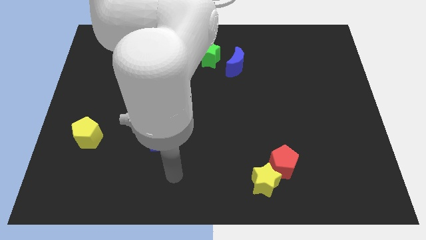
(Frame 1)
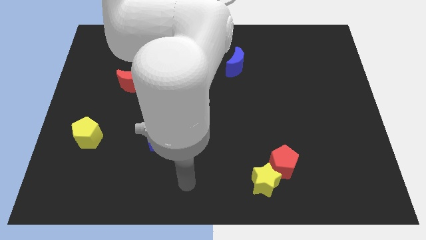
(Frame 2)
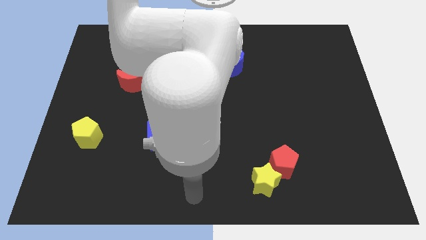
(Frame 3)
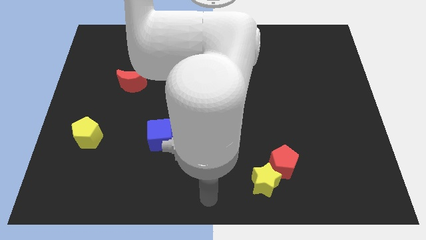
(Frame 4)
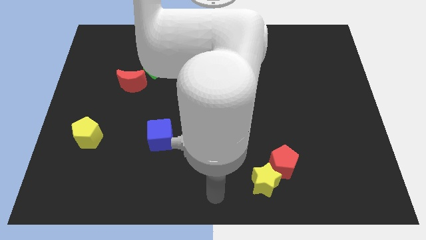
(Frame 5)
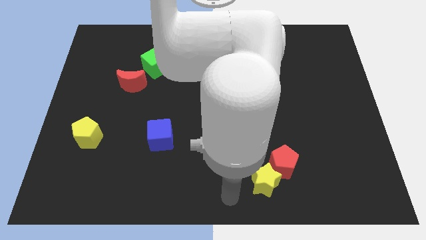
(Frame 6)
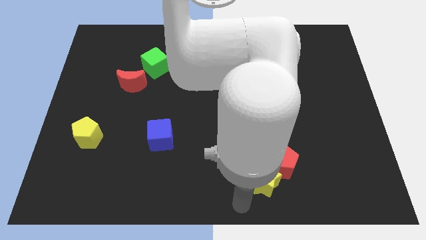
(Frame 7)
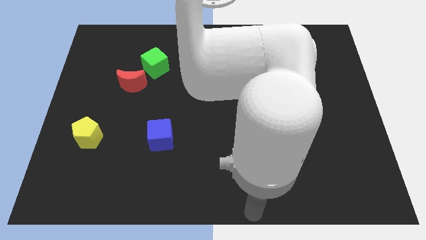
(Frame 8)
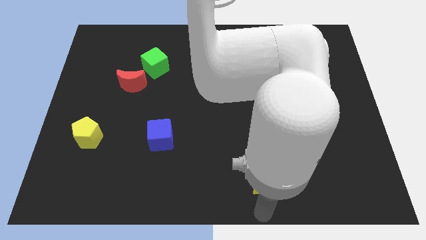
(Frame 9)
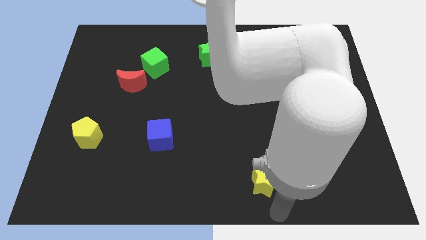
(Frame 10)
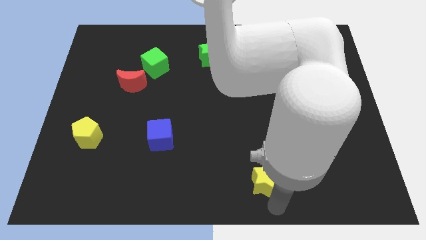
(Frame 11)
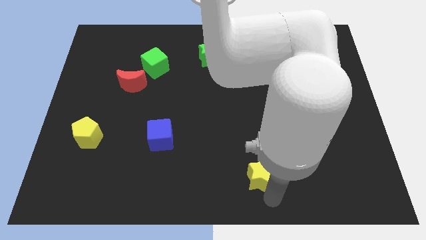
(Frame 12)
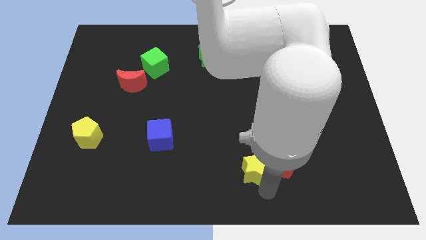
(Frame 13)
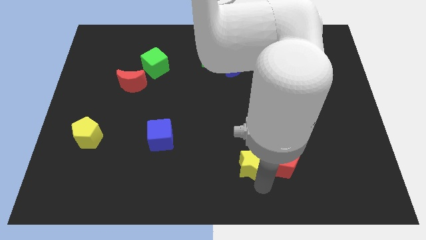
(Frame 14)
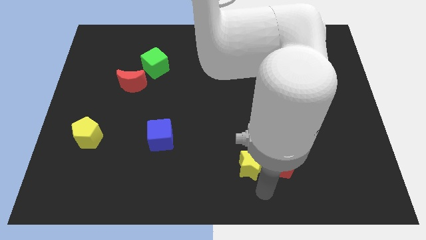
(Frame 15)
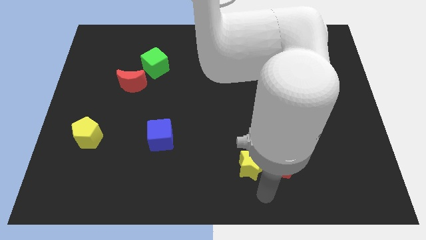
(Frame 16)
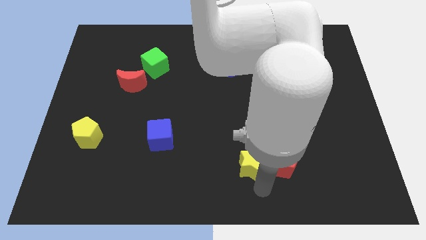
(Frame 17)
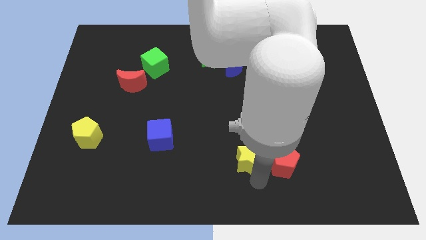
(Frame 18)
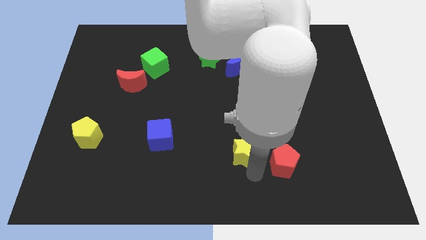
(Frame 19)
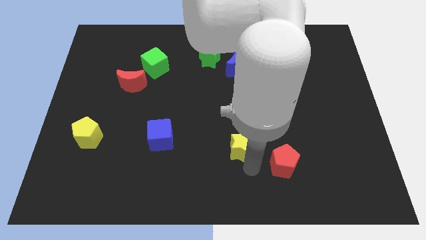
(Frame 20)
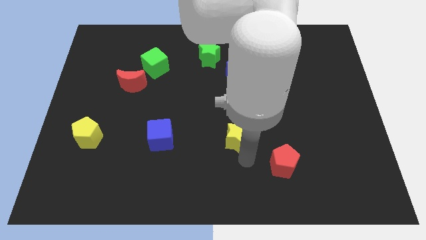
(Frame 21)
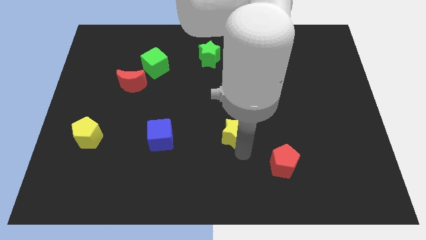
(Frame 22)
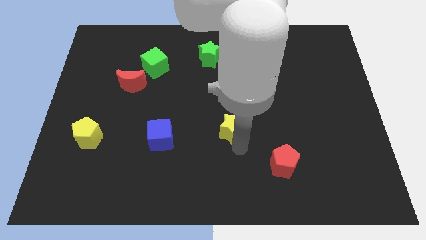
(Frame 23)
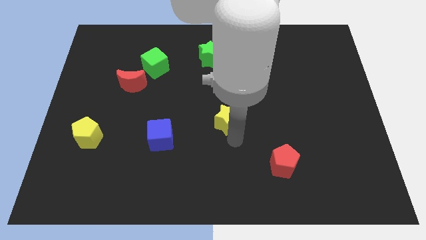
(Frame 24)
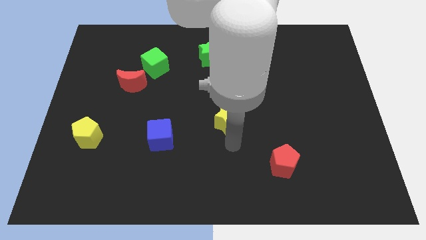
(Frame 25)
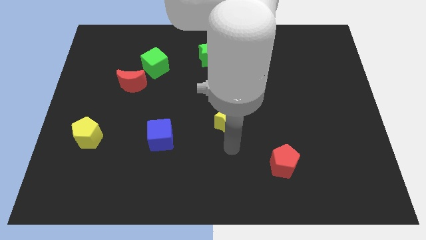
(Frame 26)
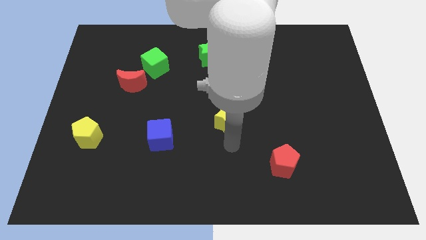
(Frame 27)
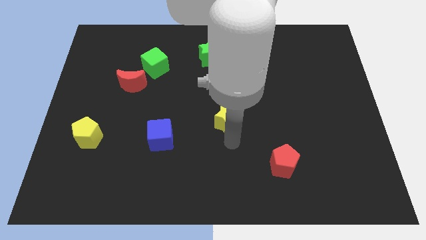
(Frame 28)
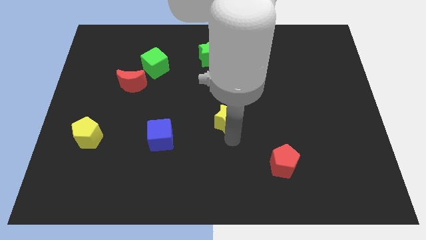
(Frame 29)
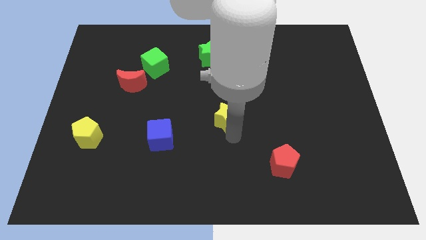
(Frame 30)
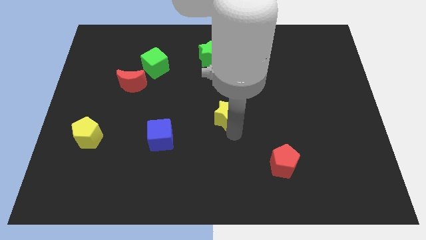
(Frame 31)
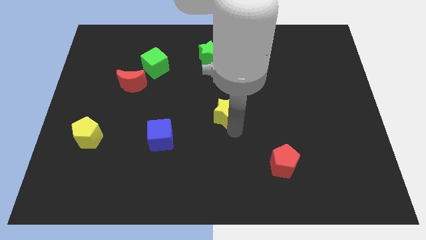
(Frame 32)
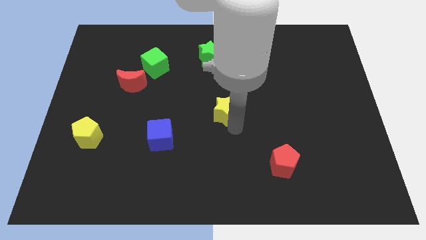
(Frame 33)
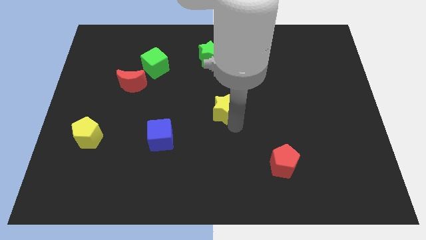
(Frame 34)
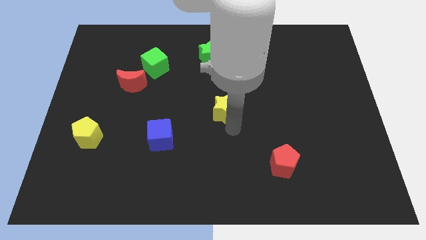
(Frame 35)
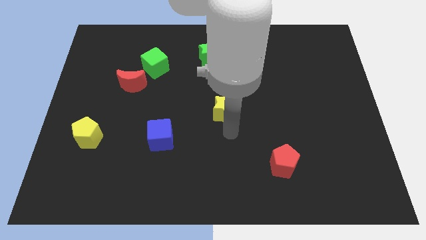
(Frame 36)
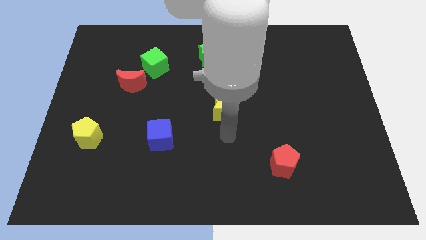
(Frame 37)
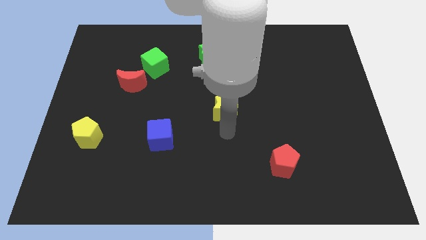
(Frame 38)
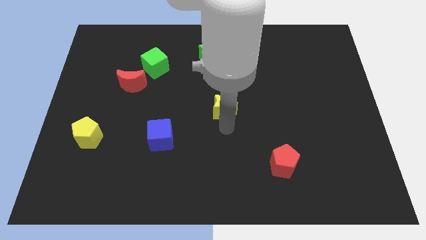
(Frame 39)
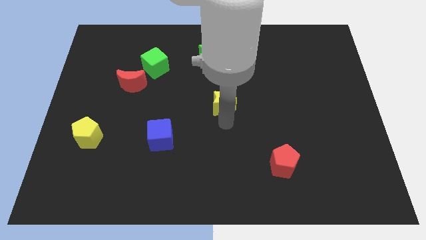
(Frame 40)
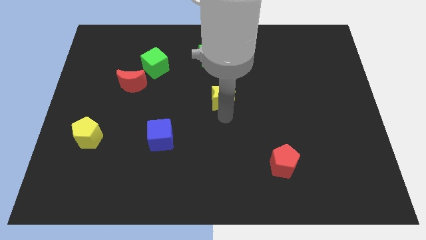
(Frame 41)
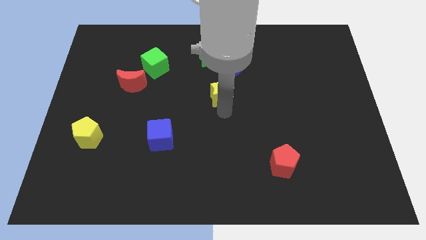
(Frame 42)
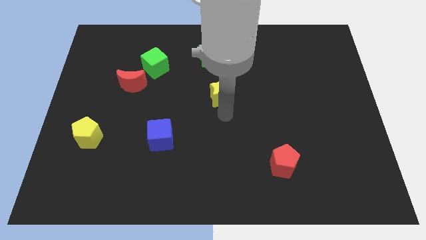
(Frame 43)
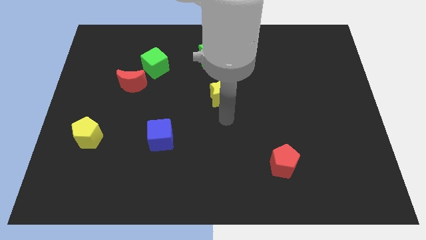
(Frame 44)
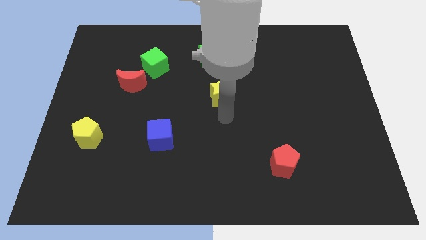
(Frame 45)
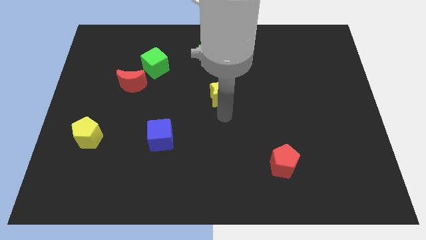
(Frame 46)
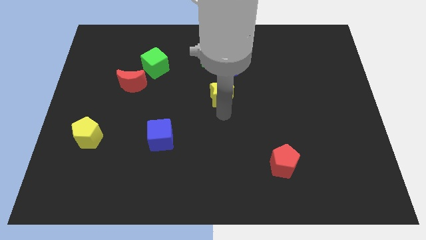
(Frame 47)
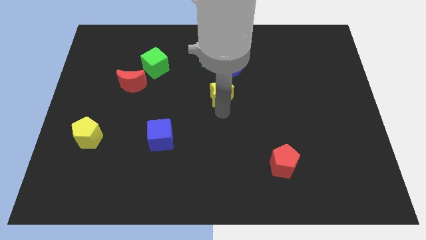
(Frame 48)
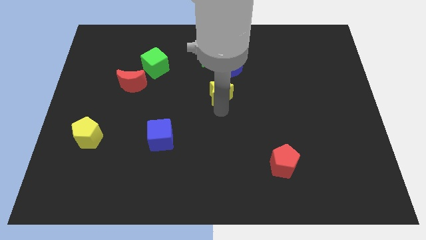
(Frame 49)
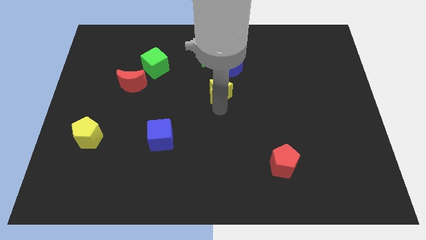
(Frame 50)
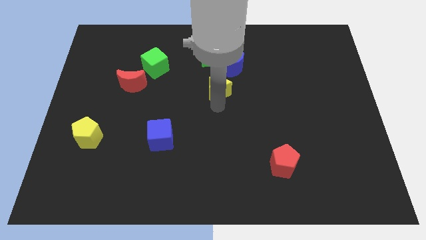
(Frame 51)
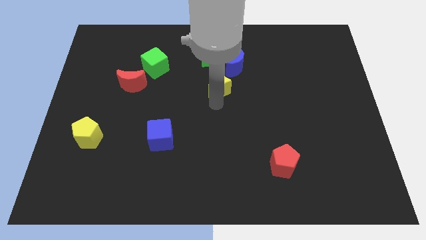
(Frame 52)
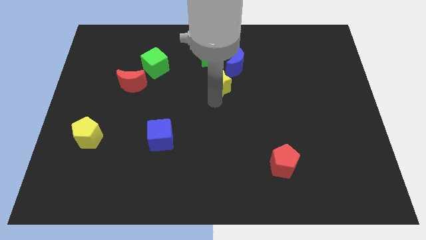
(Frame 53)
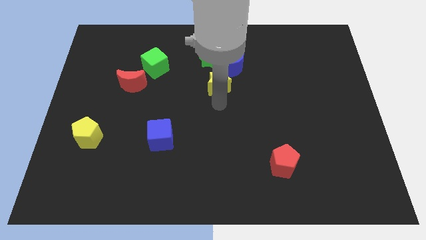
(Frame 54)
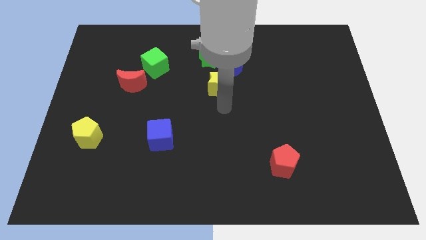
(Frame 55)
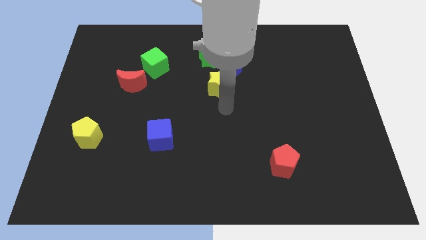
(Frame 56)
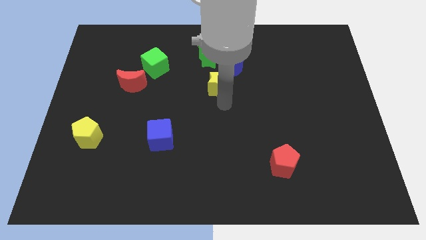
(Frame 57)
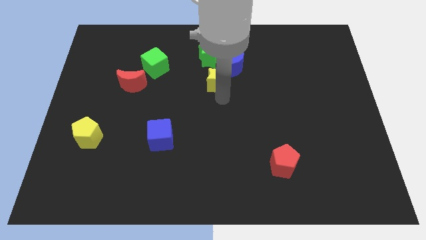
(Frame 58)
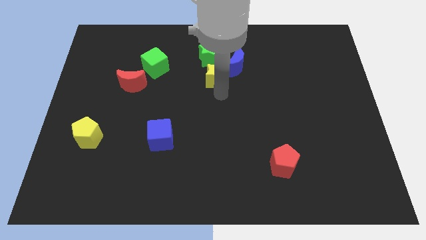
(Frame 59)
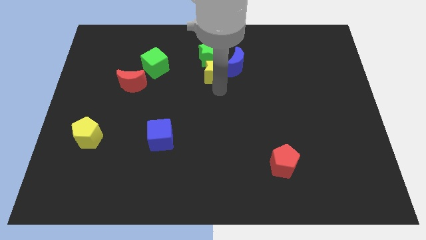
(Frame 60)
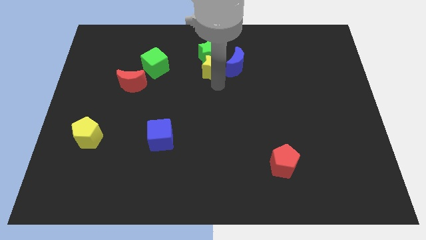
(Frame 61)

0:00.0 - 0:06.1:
move the yellow star next to the green star

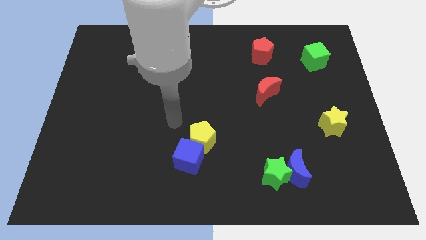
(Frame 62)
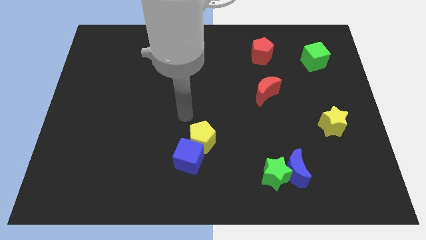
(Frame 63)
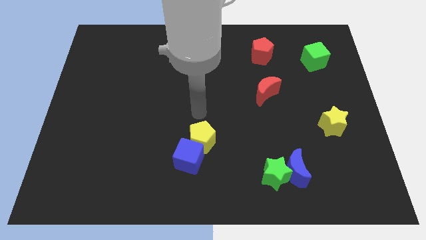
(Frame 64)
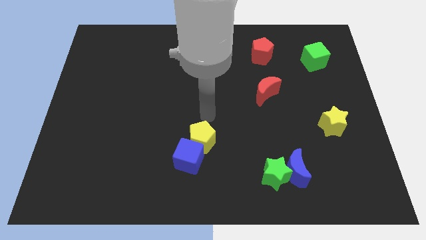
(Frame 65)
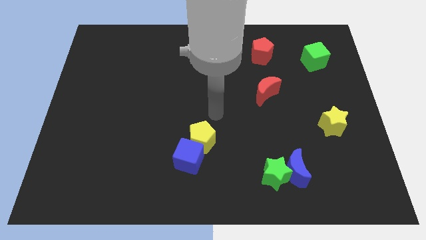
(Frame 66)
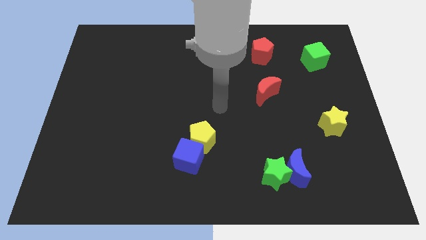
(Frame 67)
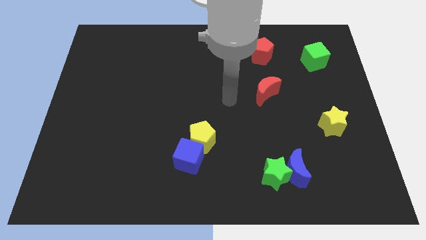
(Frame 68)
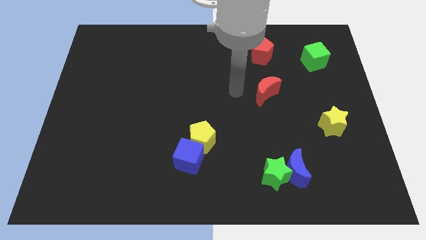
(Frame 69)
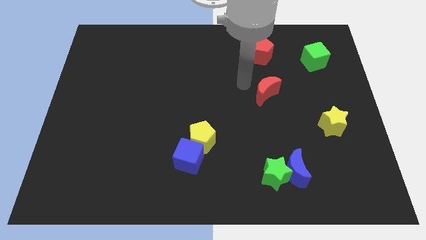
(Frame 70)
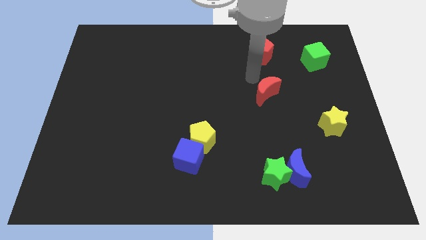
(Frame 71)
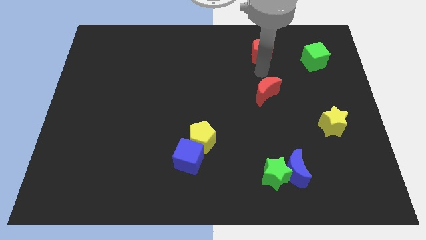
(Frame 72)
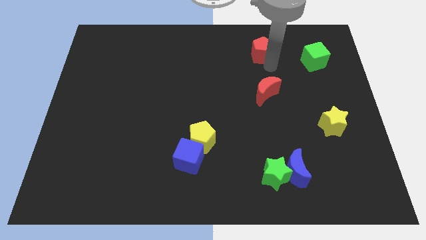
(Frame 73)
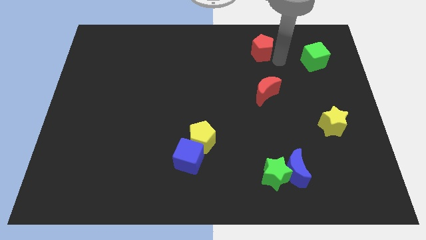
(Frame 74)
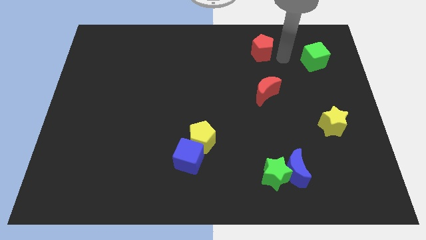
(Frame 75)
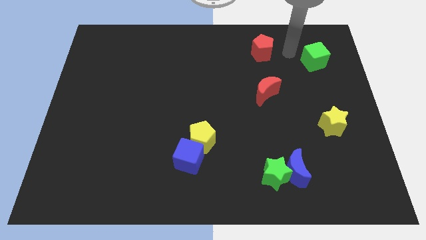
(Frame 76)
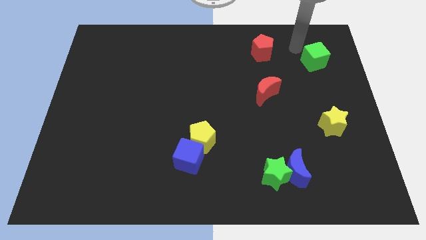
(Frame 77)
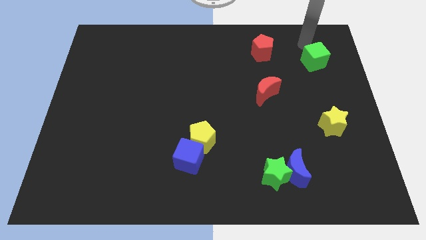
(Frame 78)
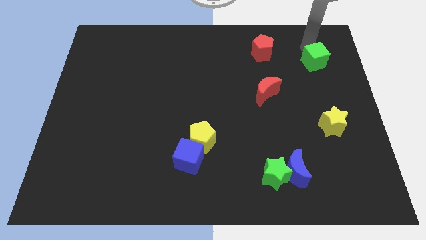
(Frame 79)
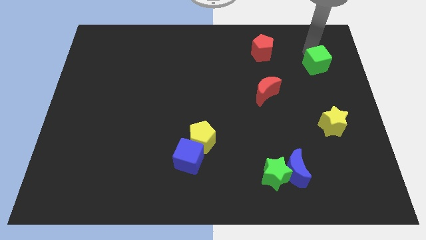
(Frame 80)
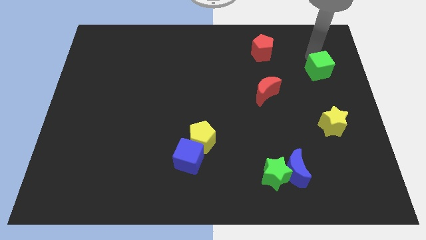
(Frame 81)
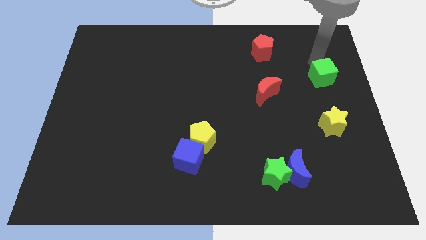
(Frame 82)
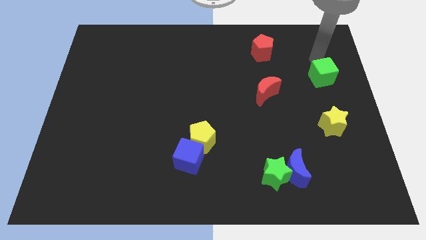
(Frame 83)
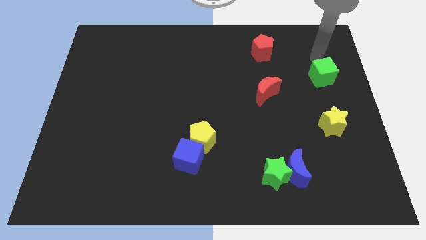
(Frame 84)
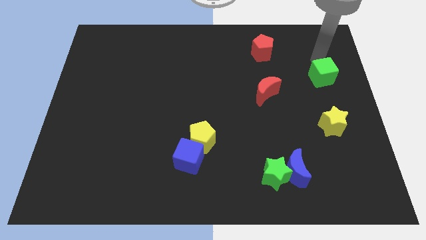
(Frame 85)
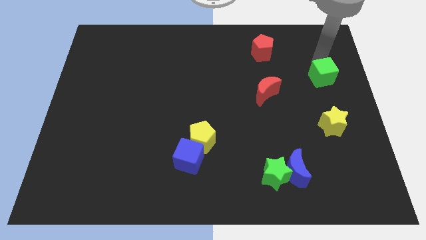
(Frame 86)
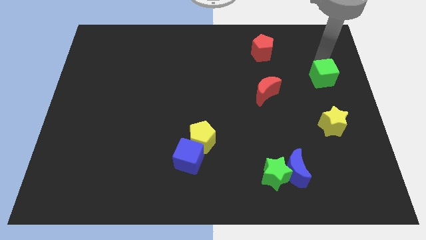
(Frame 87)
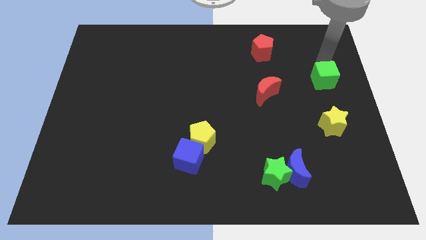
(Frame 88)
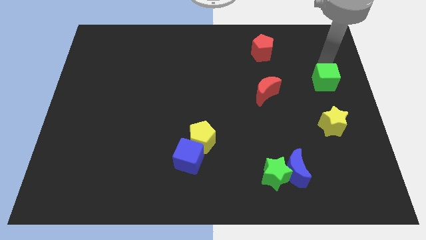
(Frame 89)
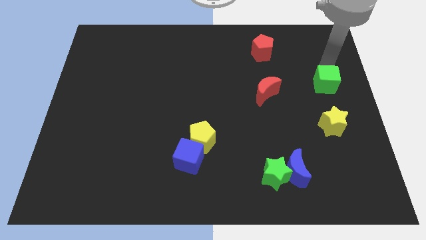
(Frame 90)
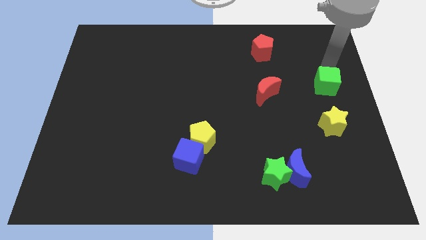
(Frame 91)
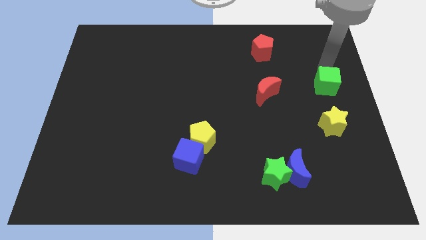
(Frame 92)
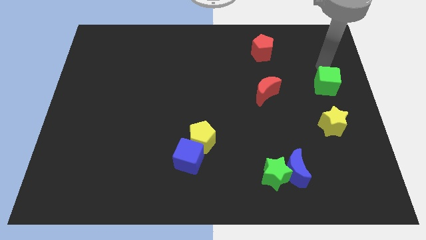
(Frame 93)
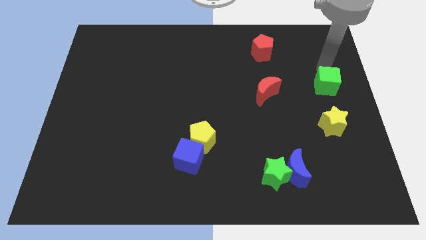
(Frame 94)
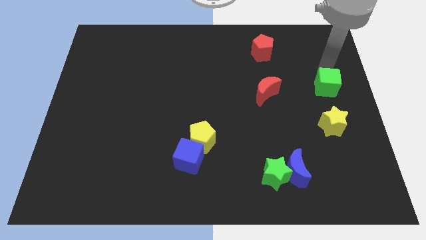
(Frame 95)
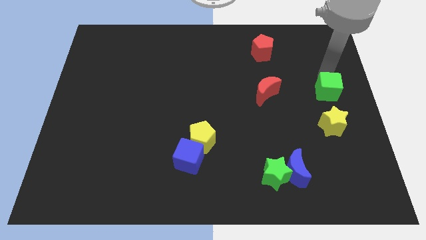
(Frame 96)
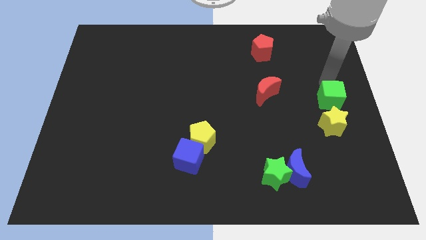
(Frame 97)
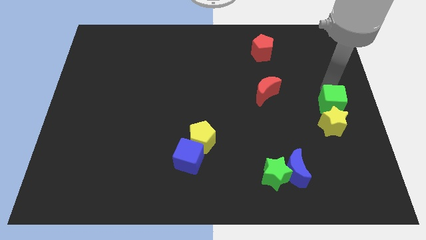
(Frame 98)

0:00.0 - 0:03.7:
slide the green cube towards the yellow star
